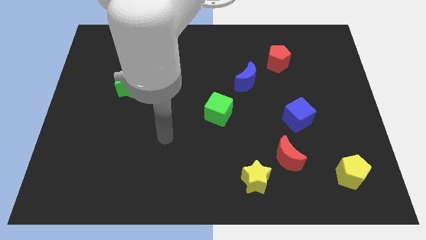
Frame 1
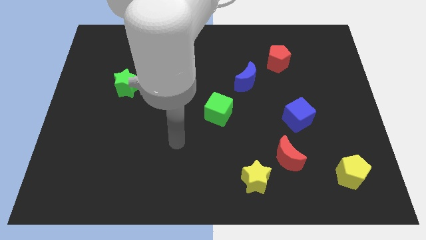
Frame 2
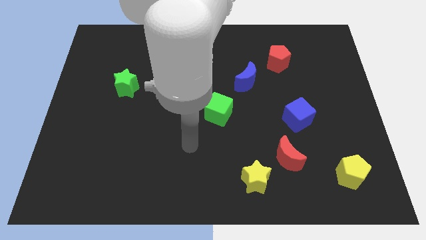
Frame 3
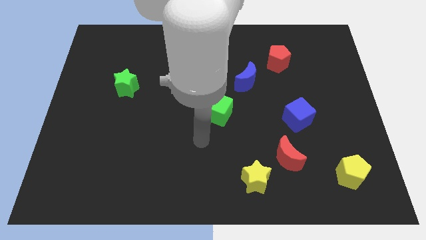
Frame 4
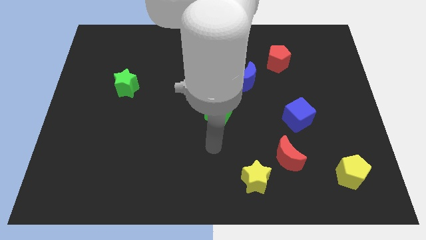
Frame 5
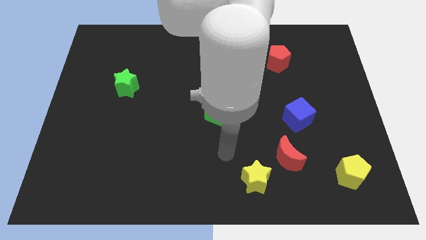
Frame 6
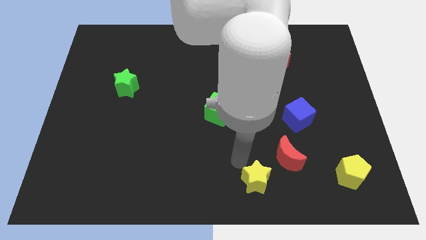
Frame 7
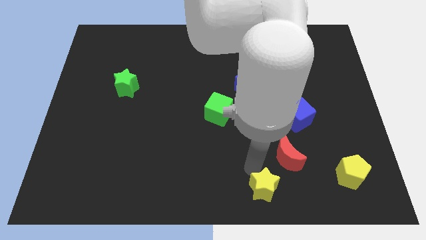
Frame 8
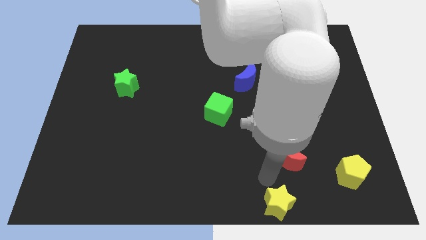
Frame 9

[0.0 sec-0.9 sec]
pull the red moon apart from the yellow star

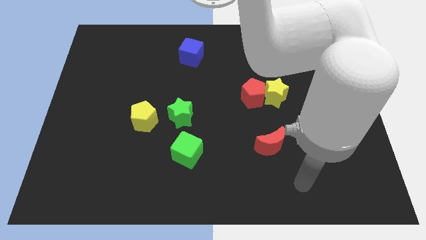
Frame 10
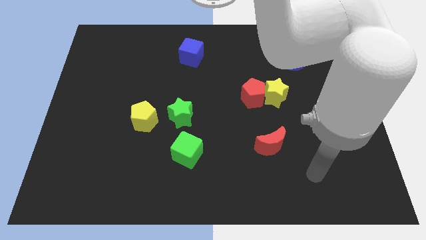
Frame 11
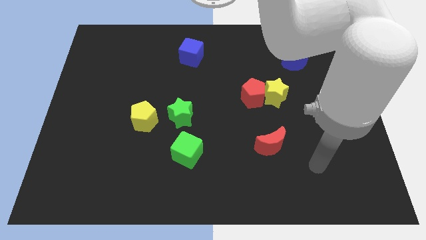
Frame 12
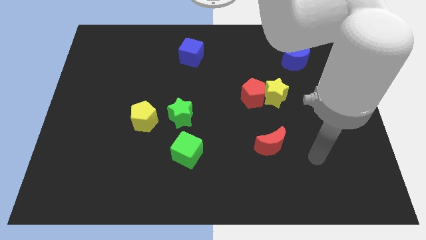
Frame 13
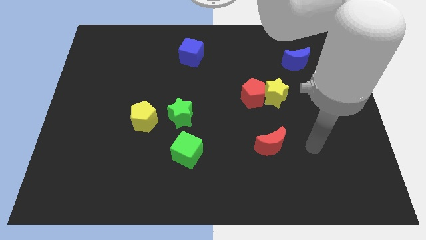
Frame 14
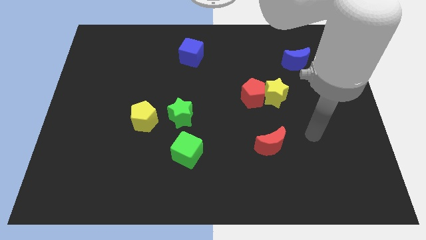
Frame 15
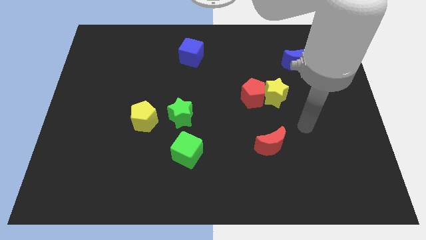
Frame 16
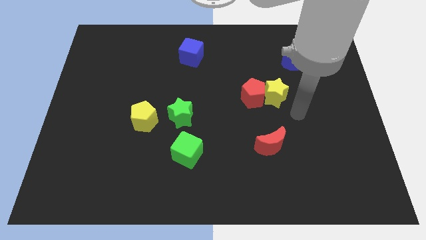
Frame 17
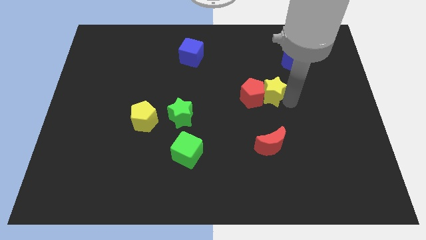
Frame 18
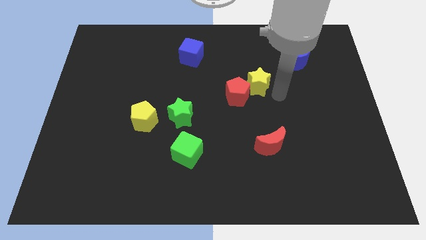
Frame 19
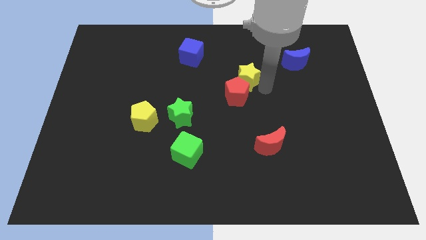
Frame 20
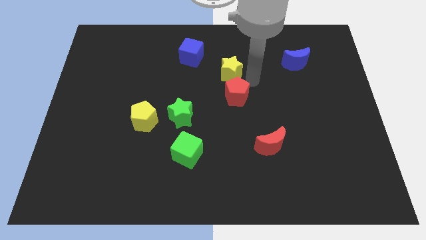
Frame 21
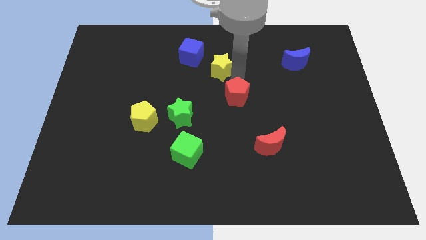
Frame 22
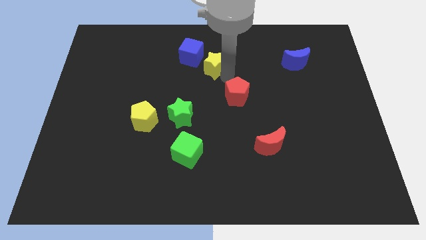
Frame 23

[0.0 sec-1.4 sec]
separate the red pentagon from the yellow star

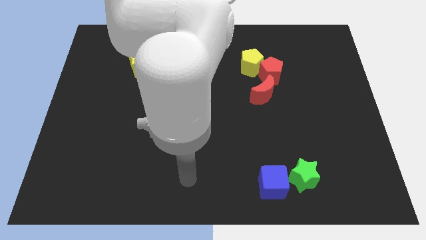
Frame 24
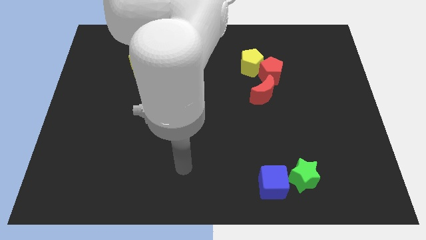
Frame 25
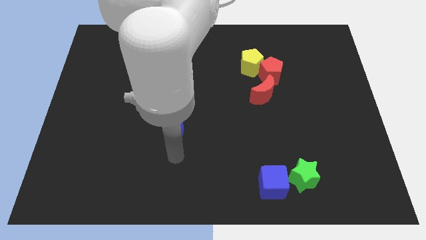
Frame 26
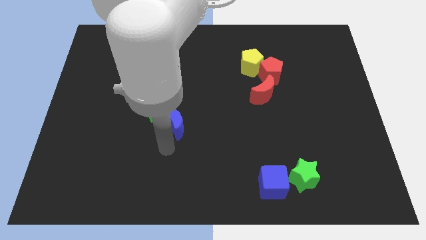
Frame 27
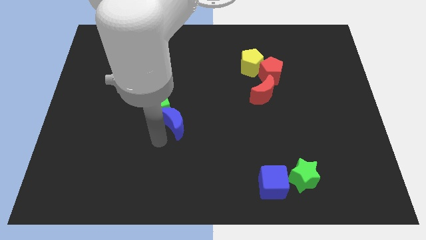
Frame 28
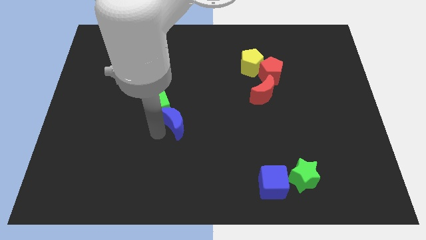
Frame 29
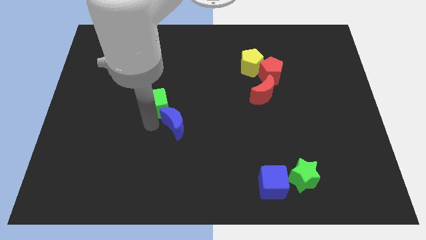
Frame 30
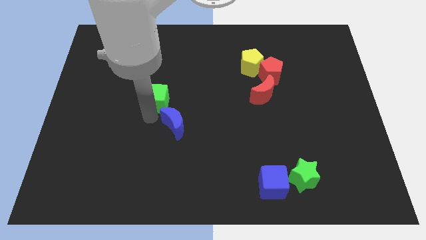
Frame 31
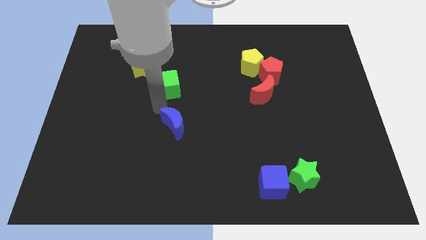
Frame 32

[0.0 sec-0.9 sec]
move the blue moon away from the green cube

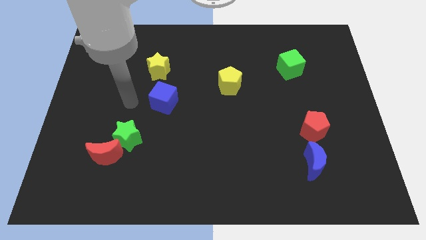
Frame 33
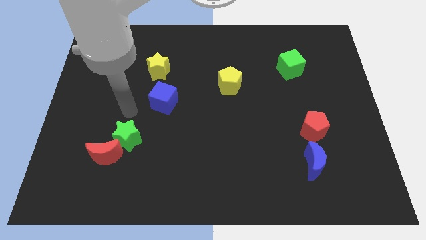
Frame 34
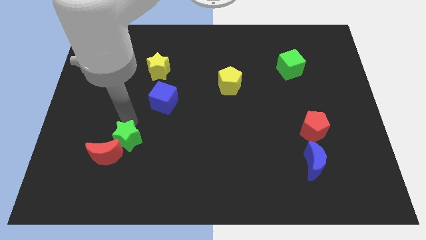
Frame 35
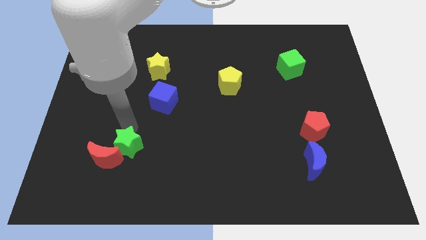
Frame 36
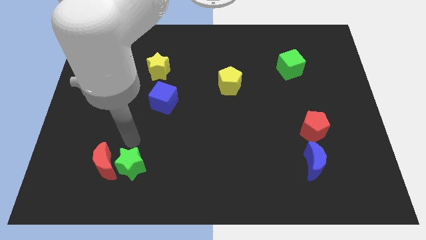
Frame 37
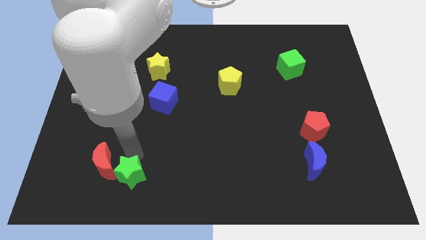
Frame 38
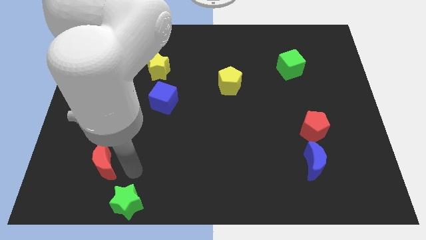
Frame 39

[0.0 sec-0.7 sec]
move the red moon away from the green star

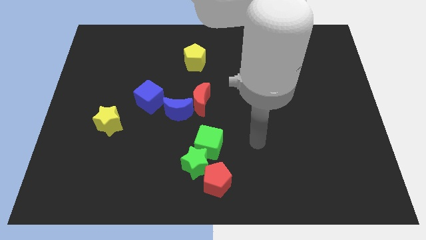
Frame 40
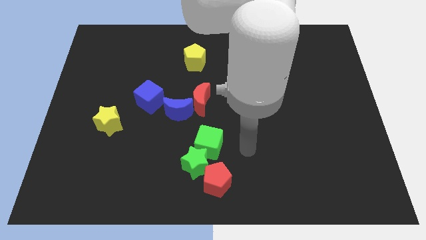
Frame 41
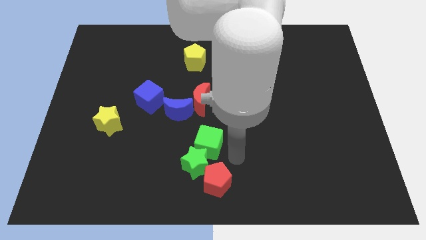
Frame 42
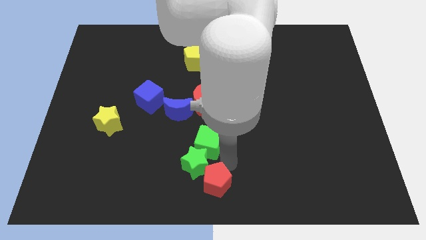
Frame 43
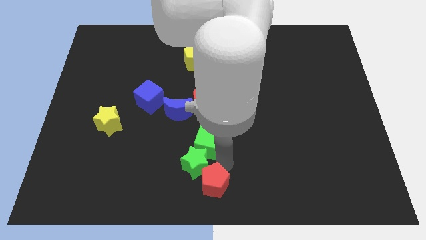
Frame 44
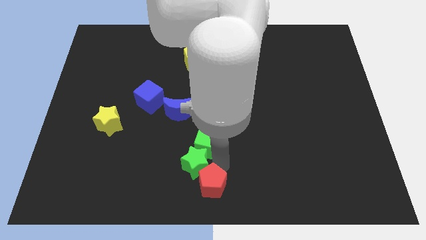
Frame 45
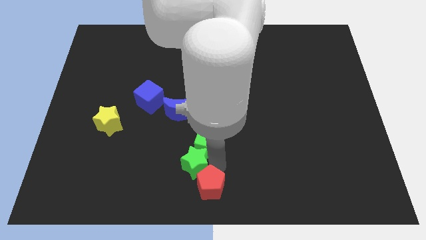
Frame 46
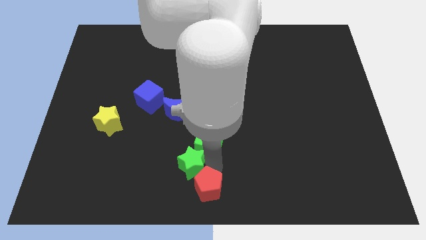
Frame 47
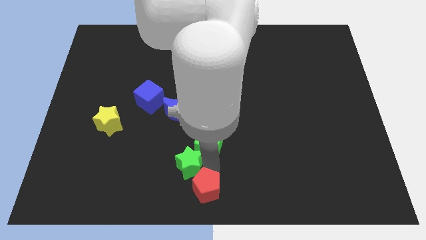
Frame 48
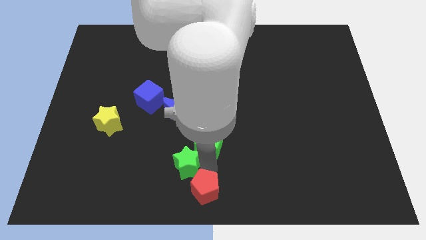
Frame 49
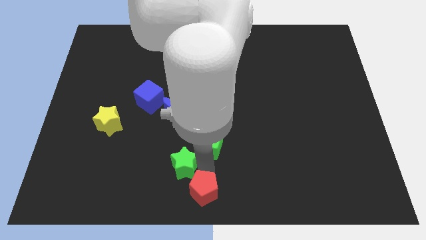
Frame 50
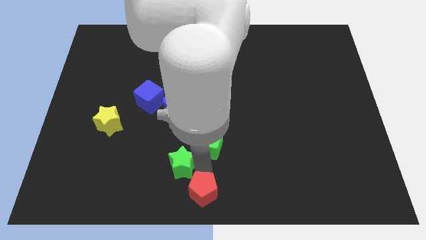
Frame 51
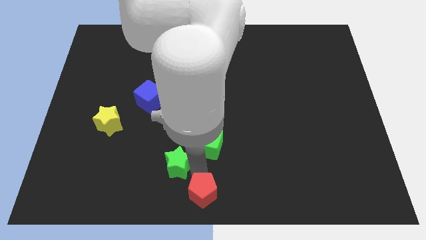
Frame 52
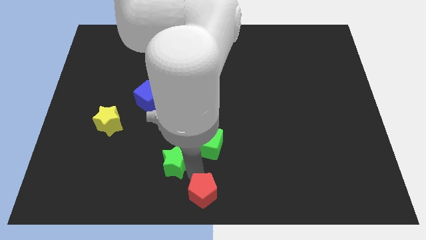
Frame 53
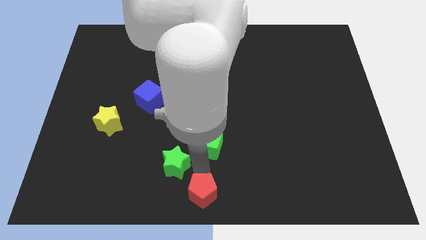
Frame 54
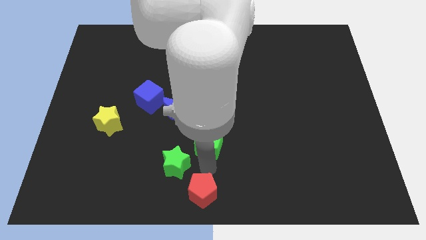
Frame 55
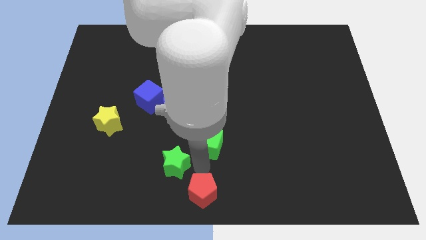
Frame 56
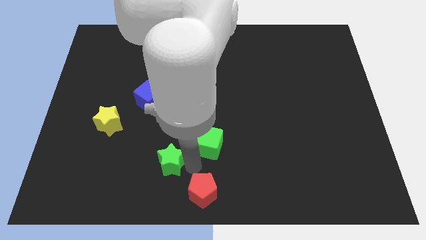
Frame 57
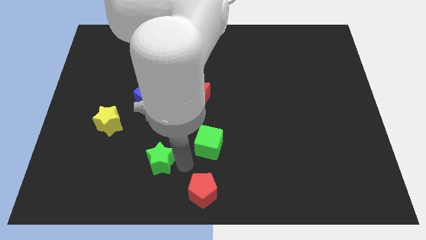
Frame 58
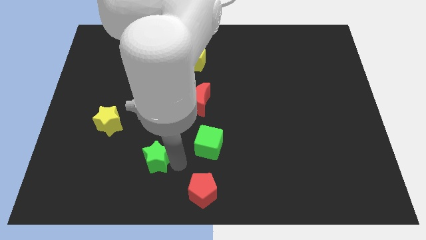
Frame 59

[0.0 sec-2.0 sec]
pull the green star apart from the green cube and red pentagon

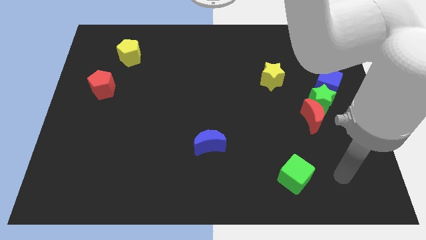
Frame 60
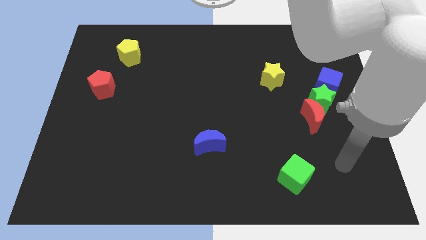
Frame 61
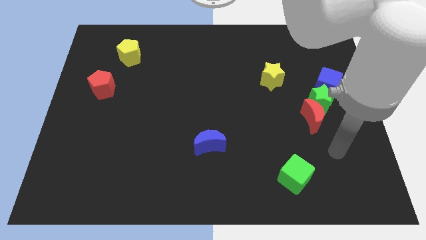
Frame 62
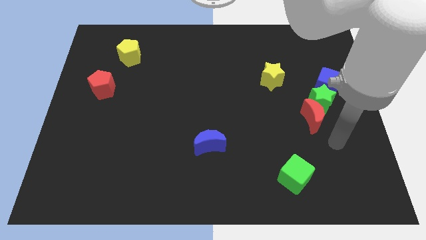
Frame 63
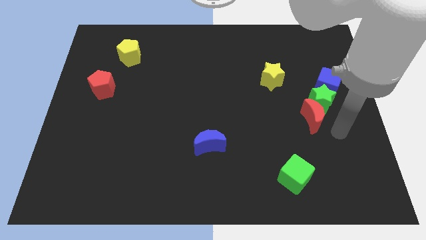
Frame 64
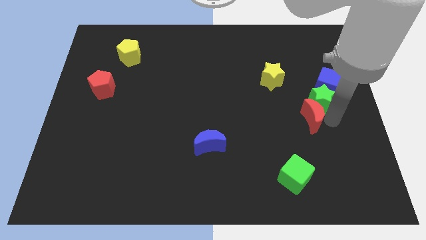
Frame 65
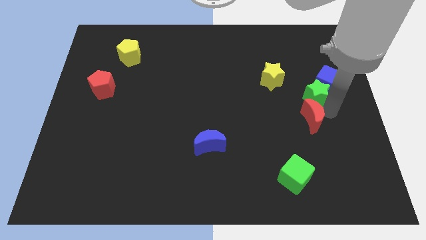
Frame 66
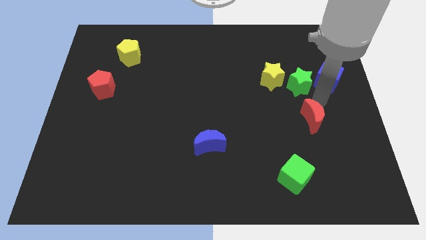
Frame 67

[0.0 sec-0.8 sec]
separate the red moon from the green star

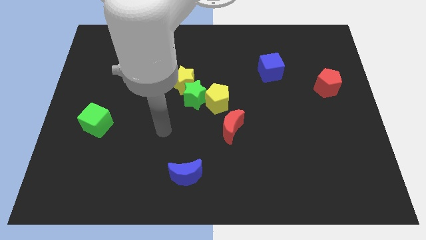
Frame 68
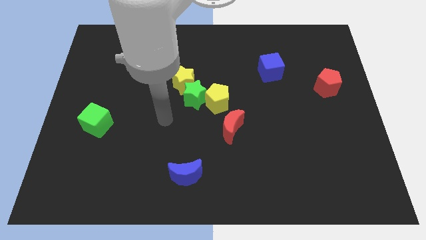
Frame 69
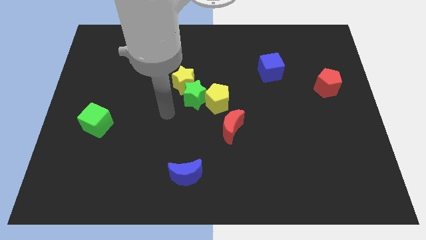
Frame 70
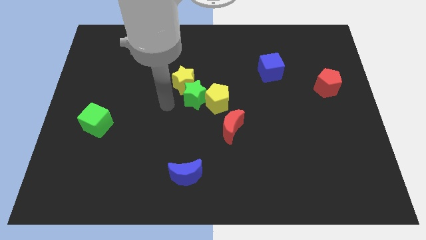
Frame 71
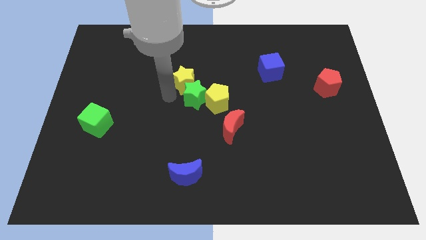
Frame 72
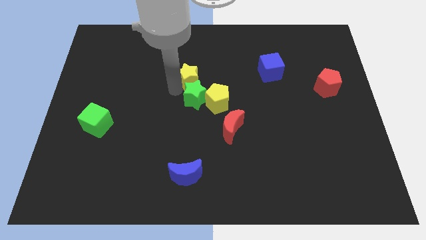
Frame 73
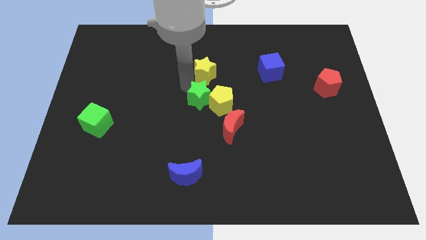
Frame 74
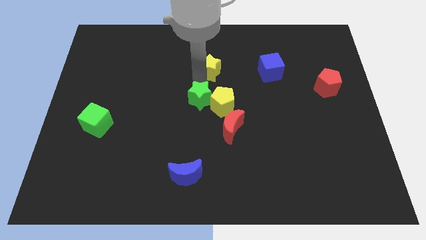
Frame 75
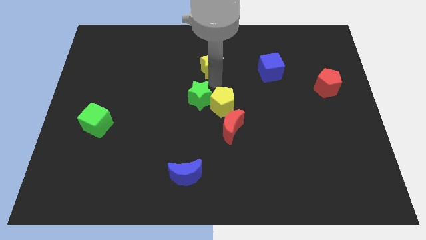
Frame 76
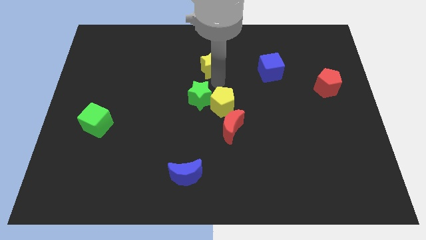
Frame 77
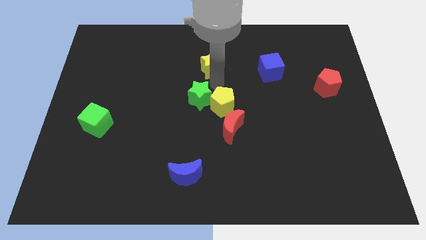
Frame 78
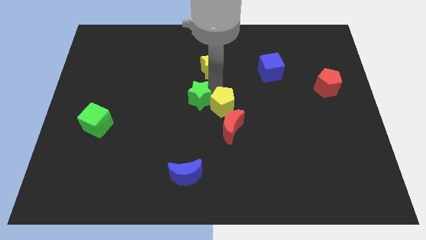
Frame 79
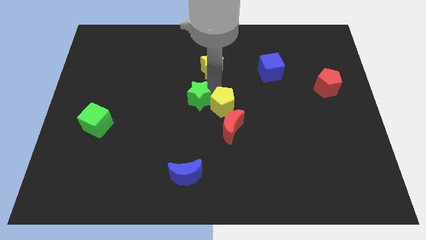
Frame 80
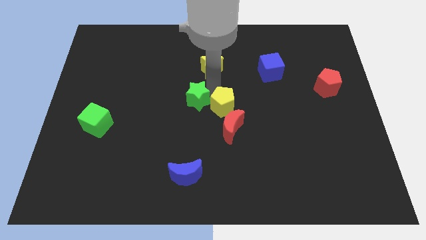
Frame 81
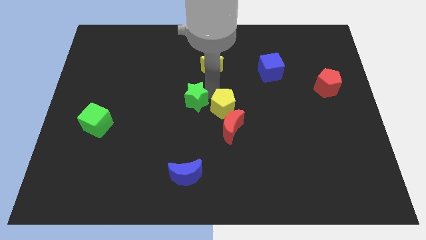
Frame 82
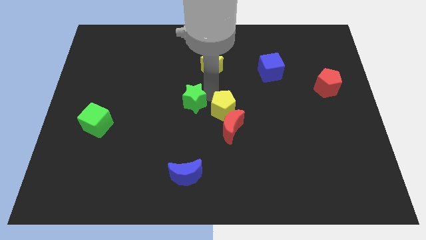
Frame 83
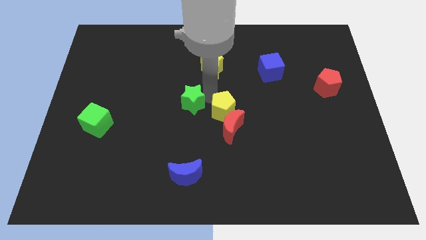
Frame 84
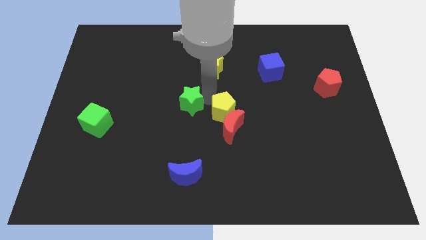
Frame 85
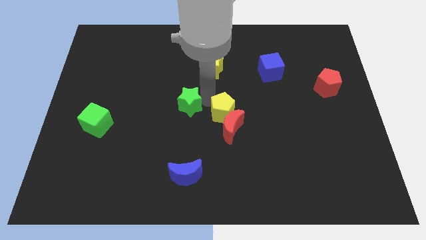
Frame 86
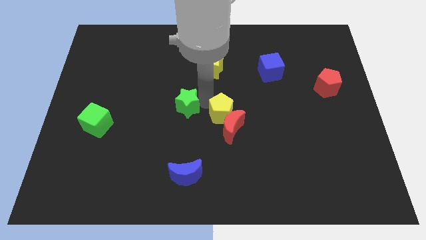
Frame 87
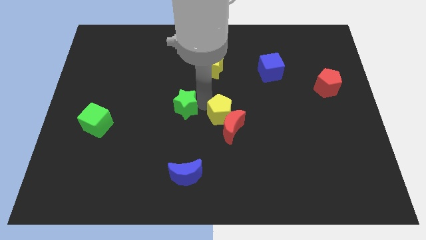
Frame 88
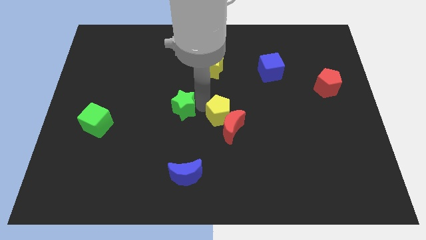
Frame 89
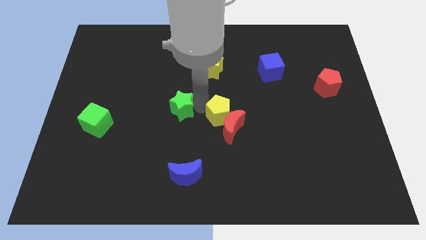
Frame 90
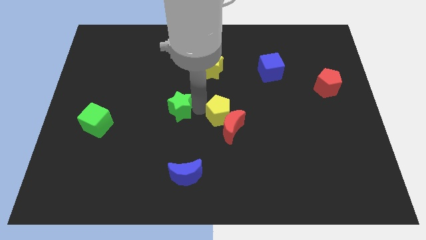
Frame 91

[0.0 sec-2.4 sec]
move the green star away from the yellow pentagon and yellow star

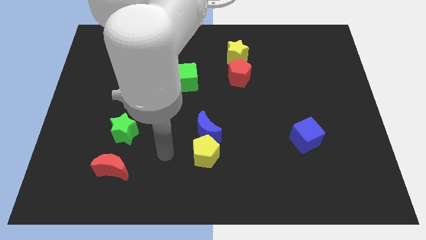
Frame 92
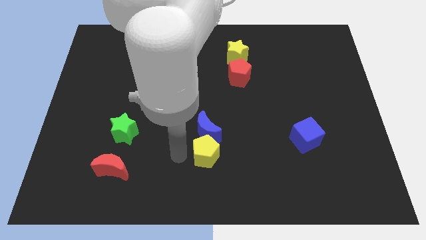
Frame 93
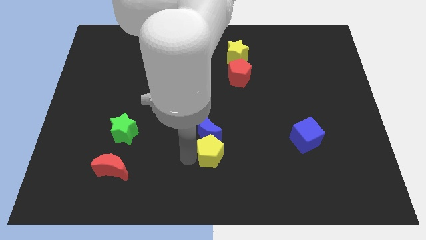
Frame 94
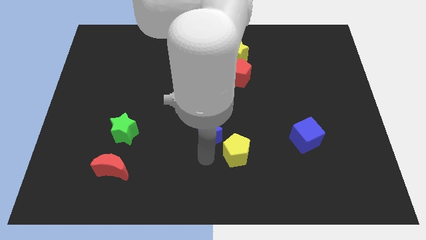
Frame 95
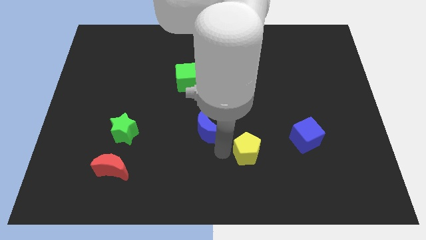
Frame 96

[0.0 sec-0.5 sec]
separate the blue moon from the yellow pentagon
